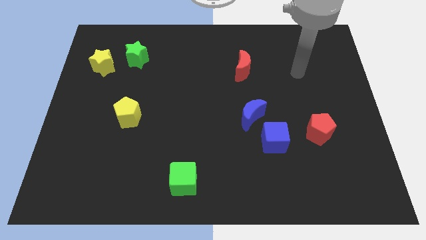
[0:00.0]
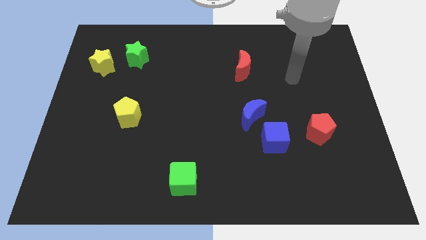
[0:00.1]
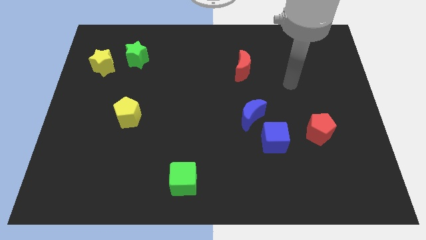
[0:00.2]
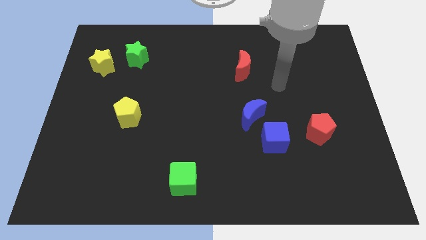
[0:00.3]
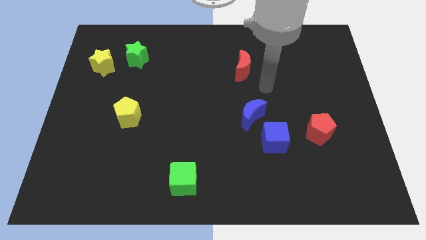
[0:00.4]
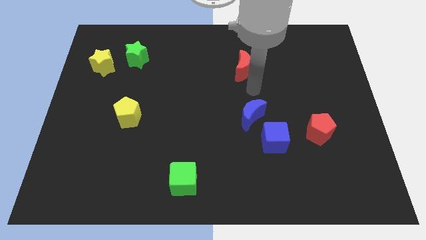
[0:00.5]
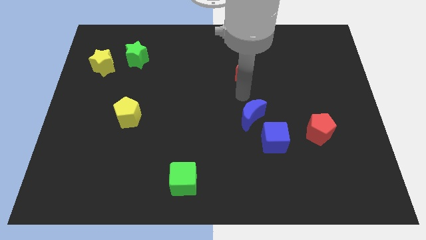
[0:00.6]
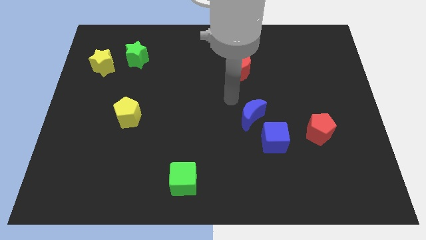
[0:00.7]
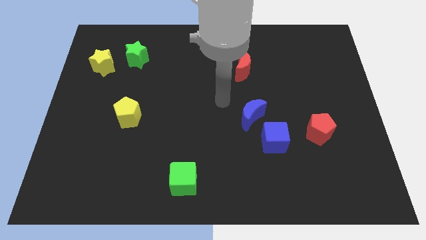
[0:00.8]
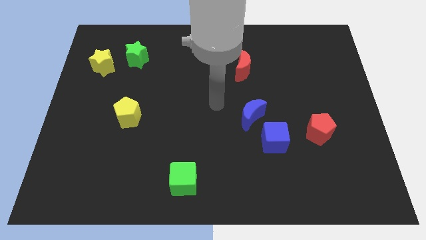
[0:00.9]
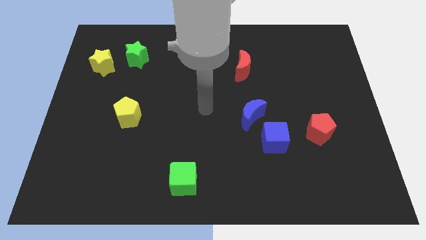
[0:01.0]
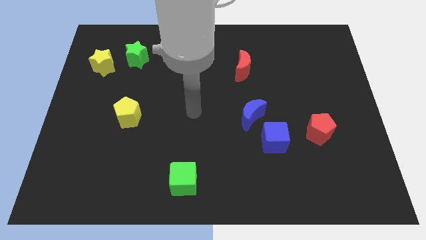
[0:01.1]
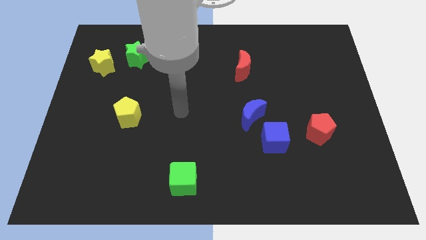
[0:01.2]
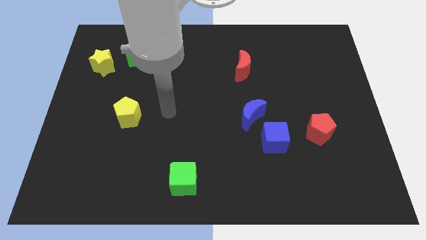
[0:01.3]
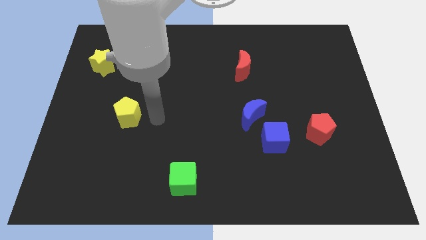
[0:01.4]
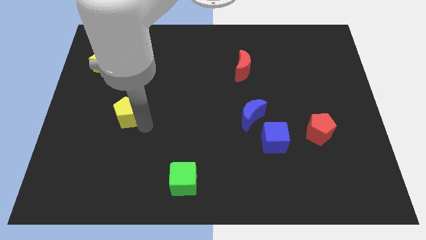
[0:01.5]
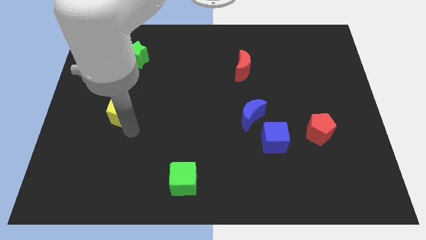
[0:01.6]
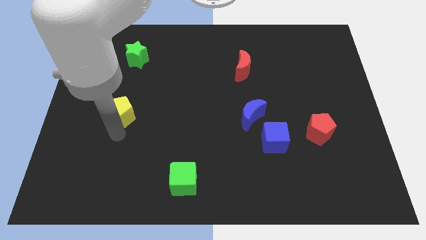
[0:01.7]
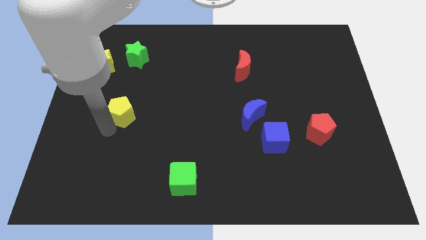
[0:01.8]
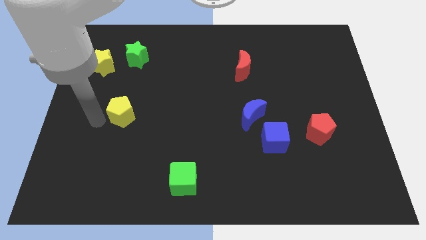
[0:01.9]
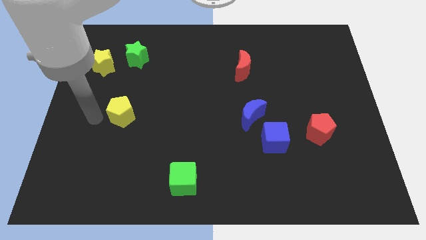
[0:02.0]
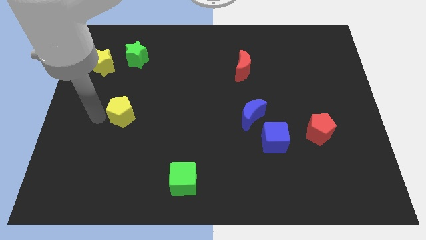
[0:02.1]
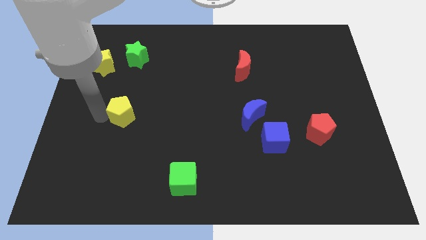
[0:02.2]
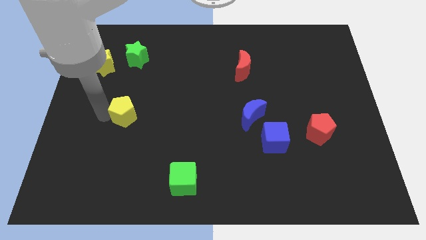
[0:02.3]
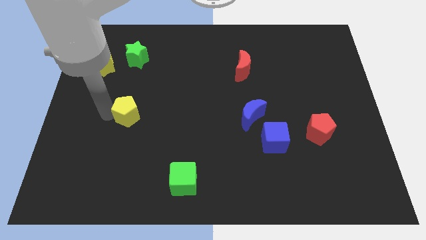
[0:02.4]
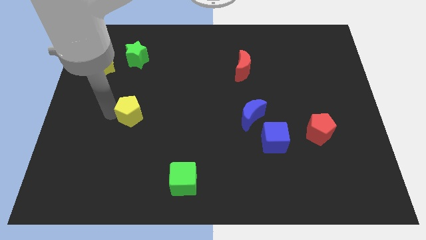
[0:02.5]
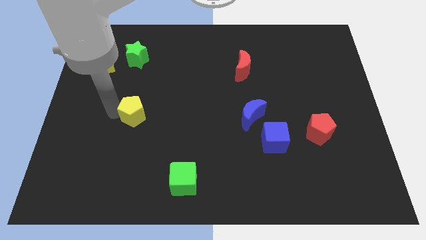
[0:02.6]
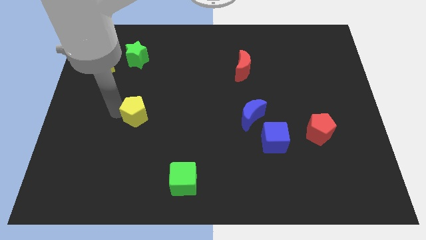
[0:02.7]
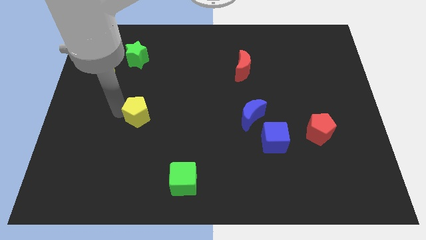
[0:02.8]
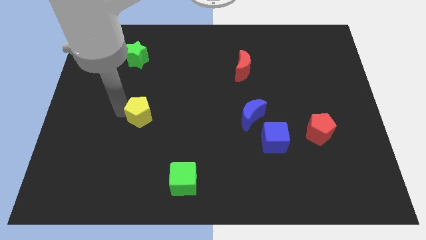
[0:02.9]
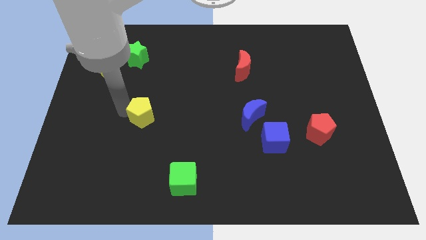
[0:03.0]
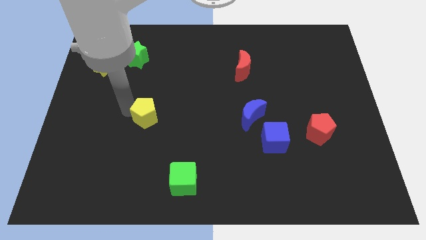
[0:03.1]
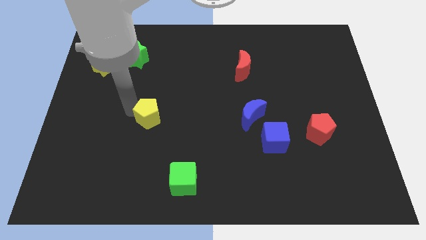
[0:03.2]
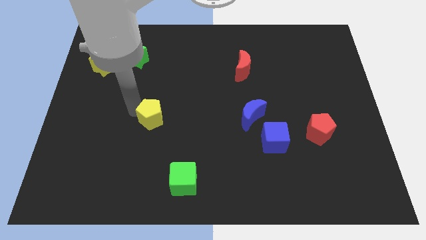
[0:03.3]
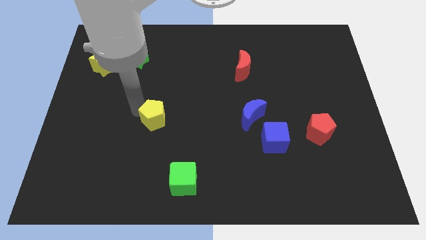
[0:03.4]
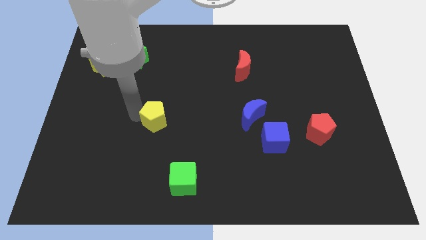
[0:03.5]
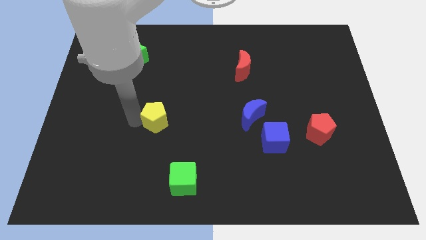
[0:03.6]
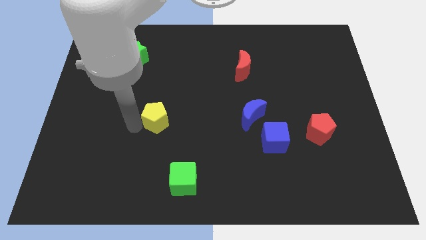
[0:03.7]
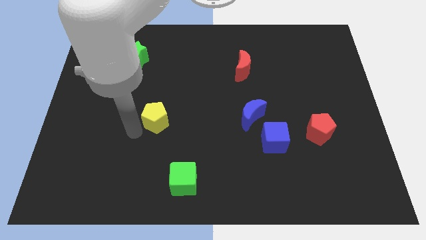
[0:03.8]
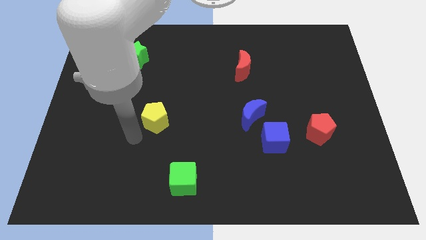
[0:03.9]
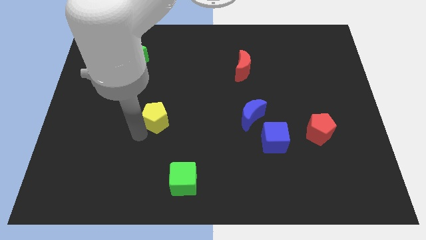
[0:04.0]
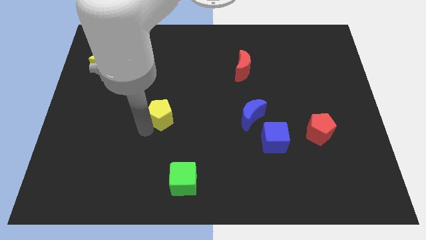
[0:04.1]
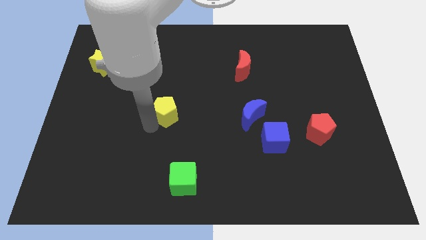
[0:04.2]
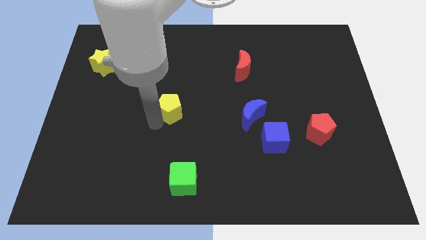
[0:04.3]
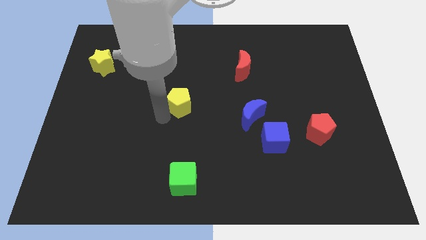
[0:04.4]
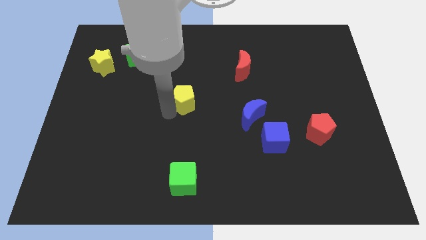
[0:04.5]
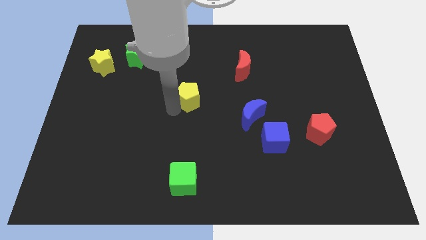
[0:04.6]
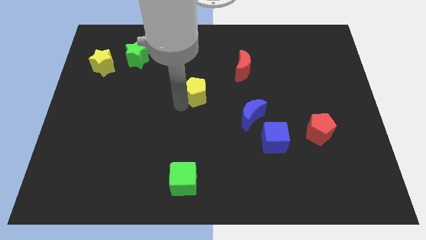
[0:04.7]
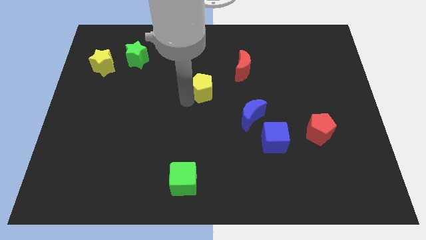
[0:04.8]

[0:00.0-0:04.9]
slide the yellow pentagon to the bottom left of the red moon

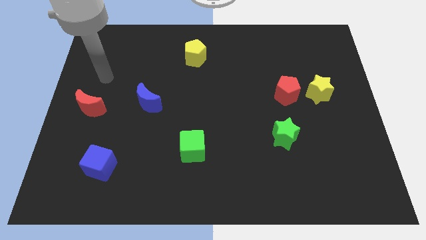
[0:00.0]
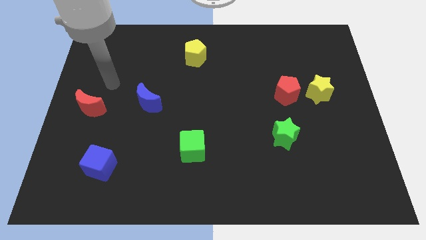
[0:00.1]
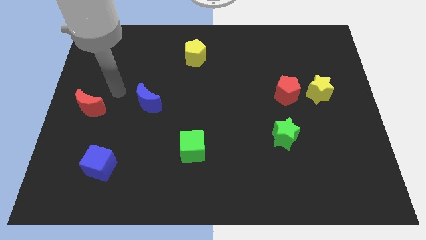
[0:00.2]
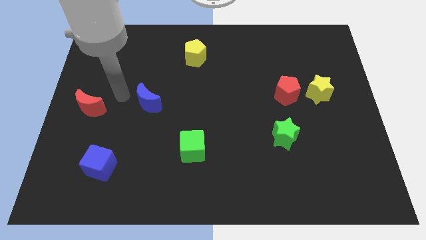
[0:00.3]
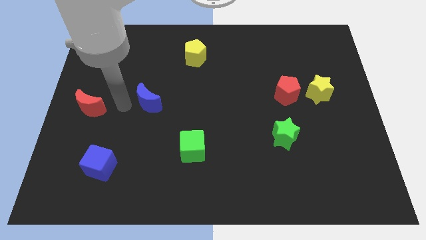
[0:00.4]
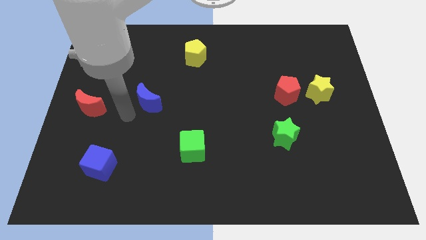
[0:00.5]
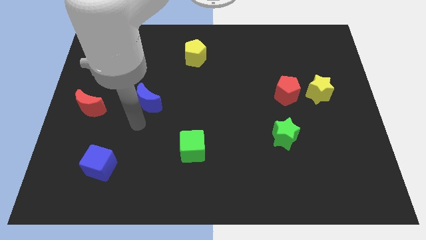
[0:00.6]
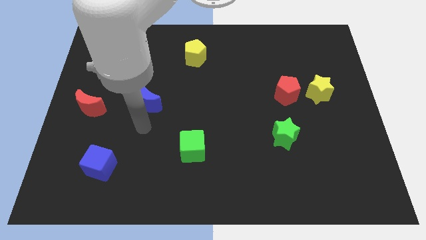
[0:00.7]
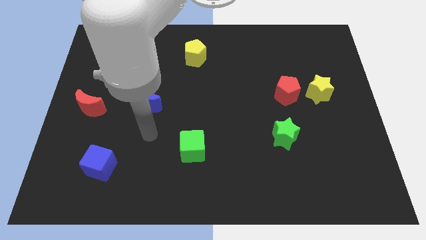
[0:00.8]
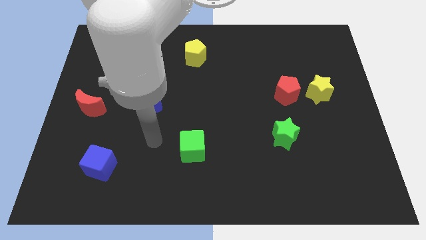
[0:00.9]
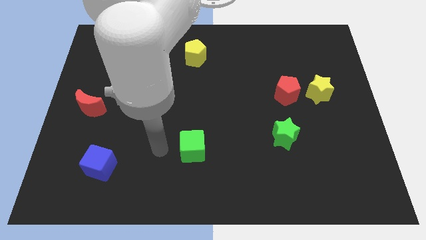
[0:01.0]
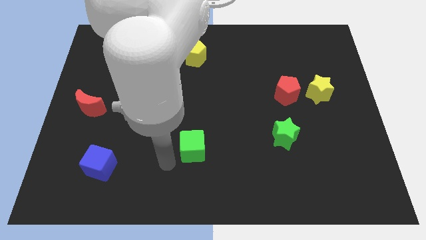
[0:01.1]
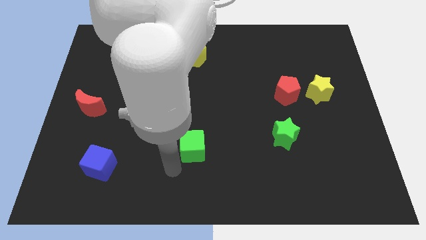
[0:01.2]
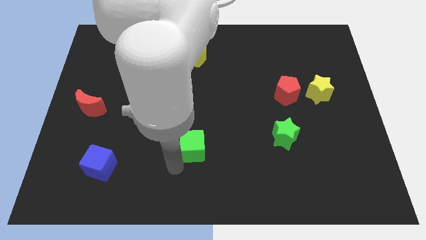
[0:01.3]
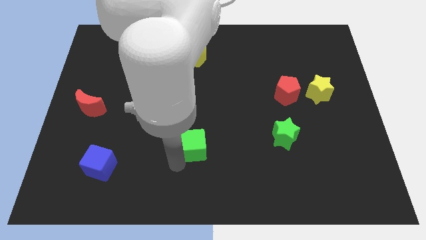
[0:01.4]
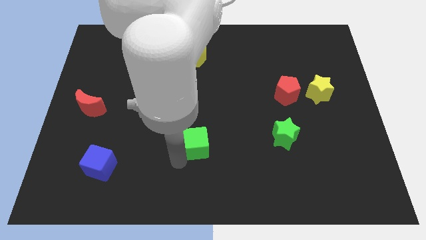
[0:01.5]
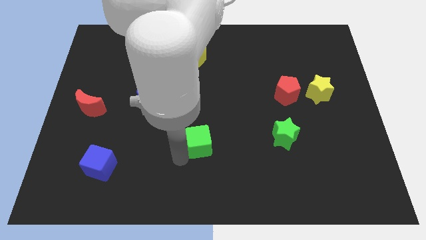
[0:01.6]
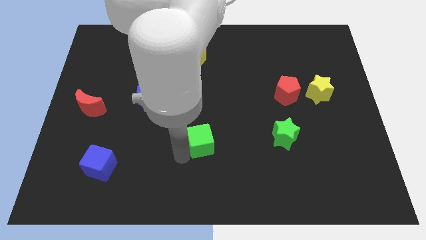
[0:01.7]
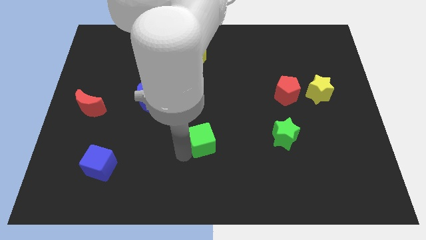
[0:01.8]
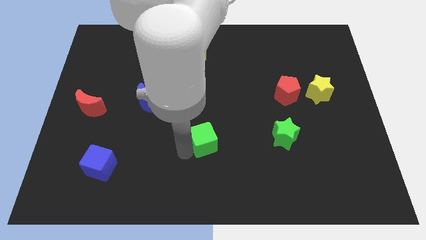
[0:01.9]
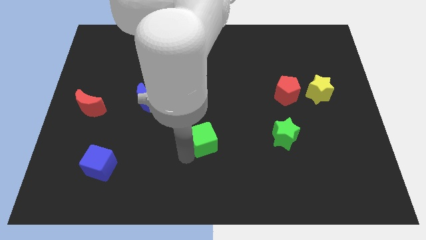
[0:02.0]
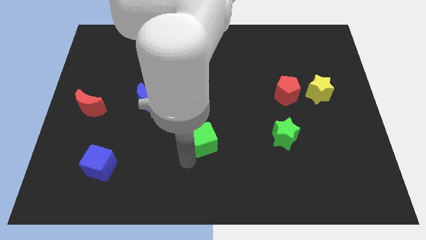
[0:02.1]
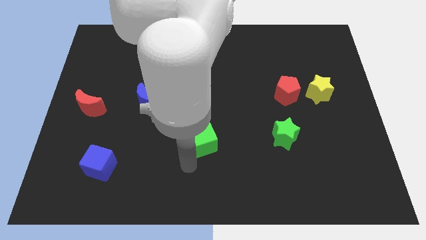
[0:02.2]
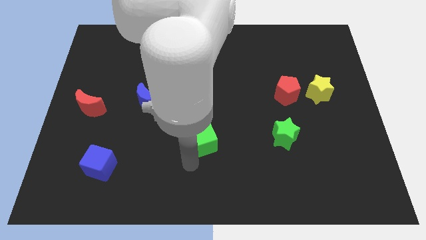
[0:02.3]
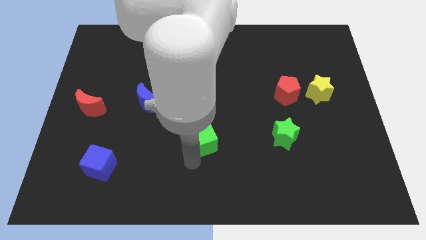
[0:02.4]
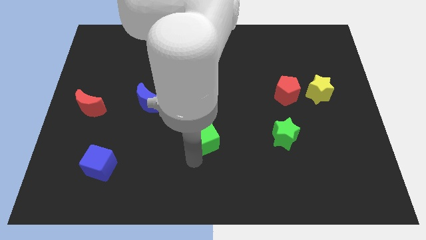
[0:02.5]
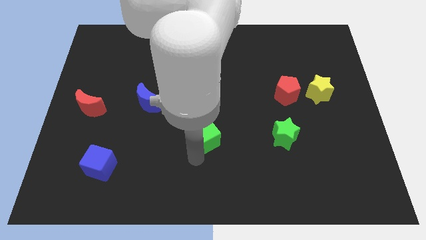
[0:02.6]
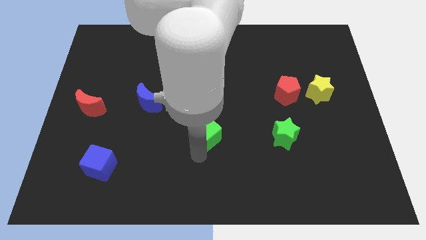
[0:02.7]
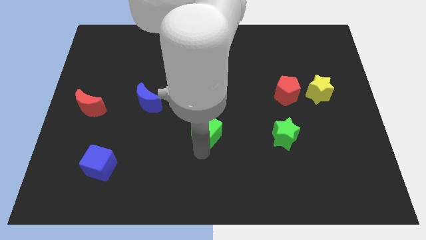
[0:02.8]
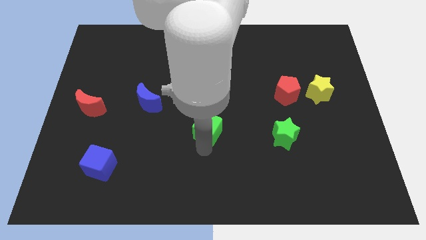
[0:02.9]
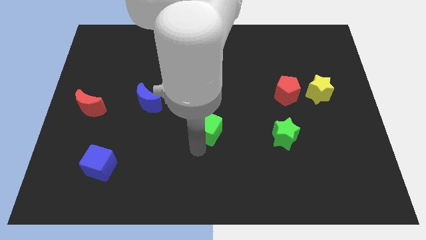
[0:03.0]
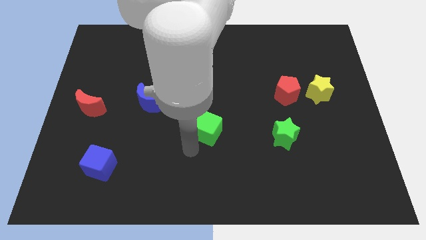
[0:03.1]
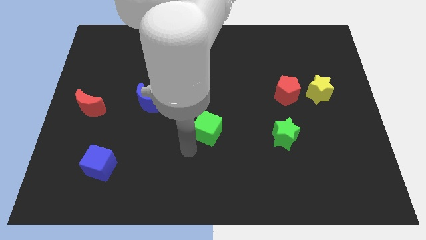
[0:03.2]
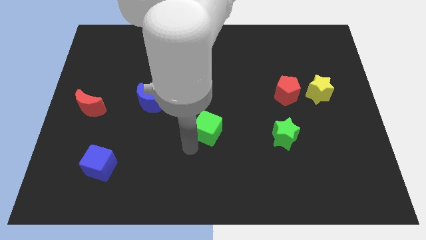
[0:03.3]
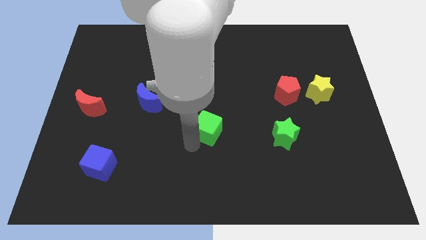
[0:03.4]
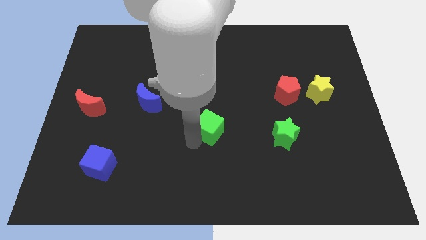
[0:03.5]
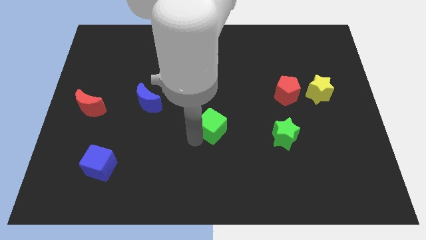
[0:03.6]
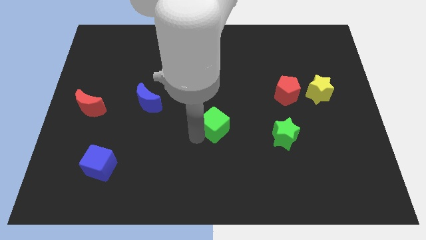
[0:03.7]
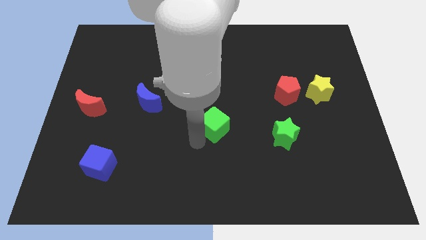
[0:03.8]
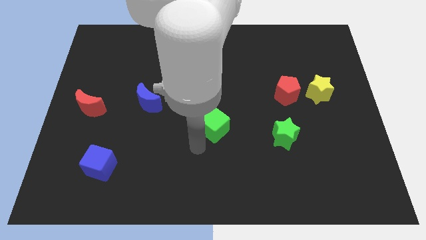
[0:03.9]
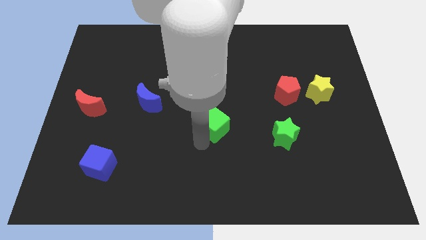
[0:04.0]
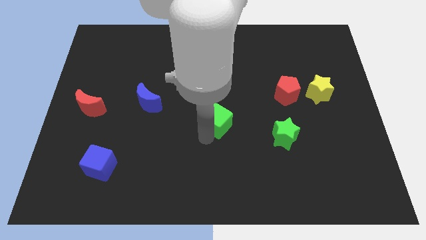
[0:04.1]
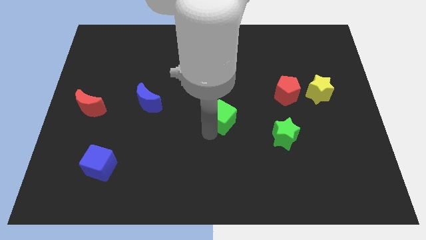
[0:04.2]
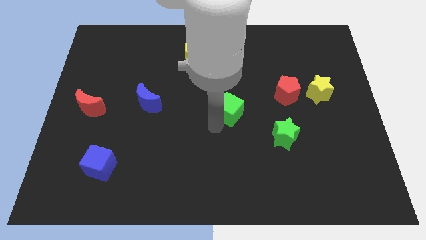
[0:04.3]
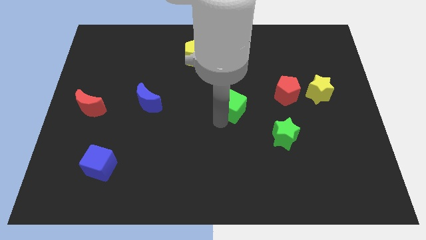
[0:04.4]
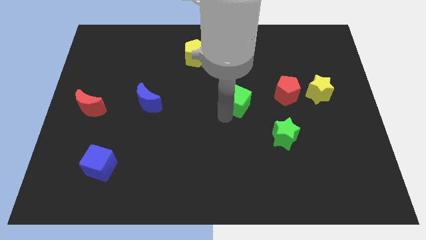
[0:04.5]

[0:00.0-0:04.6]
slide the green cube to the left of the red pentagon
